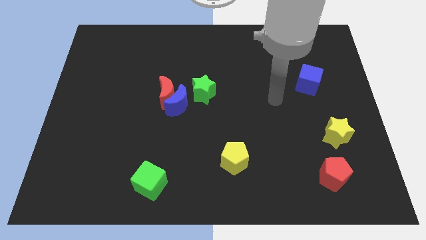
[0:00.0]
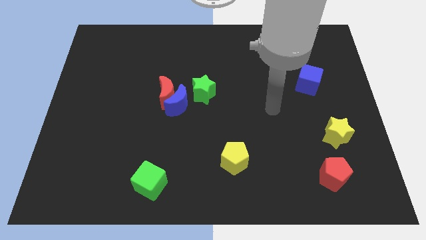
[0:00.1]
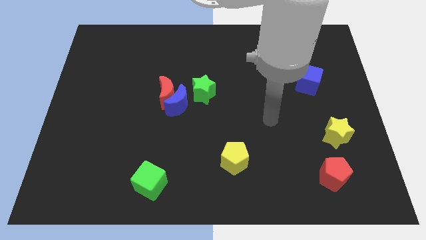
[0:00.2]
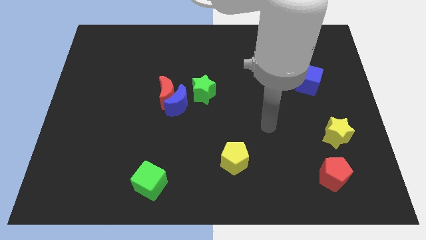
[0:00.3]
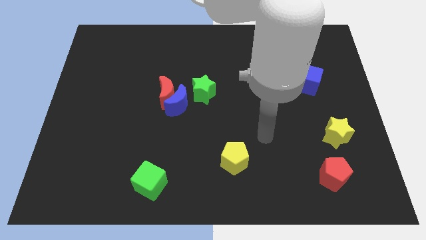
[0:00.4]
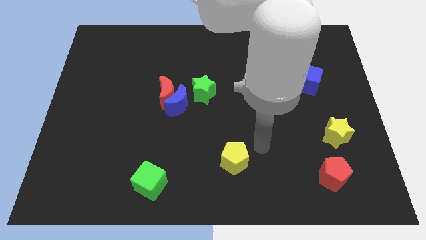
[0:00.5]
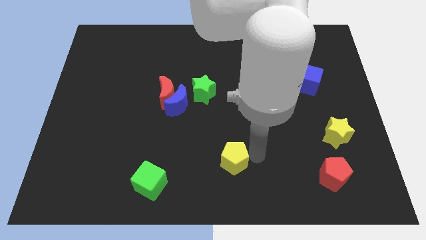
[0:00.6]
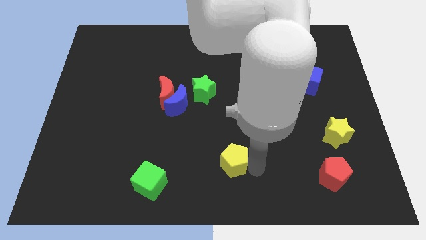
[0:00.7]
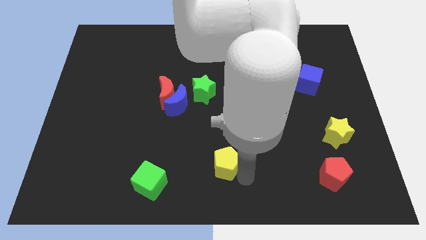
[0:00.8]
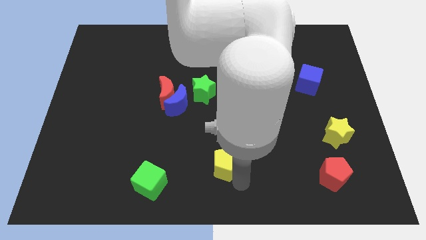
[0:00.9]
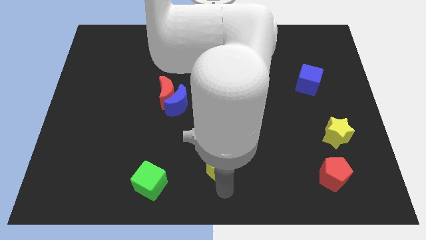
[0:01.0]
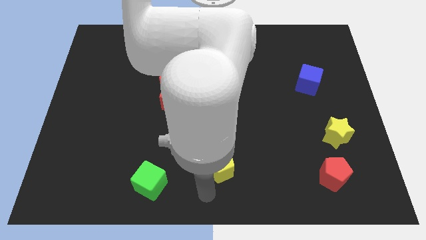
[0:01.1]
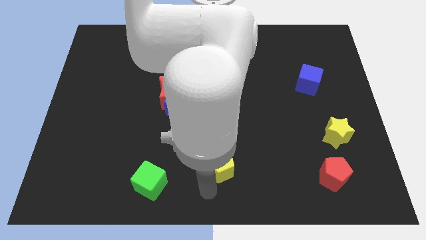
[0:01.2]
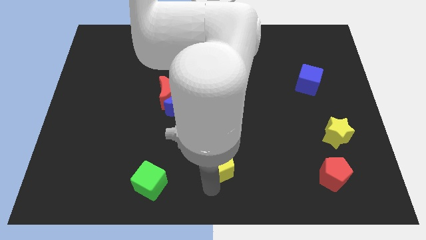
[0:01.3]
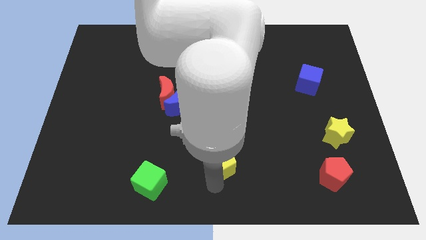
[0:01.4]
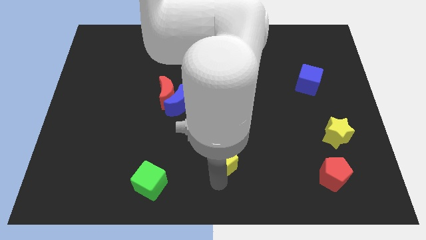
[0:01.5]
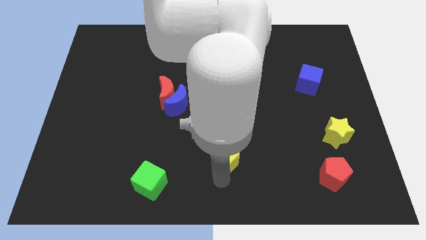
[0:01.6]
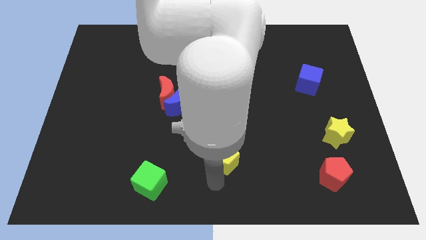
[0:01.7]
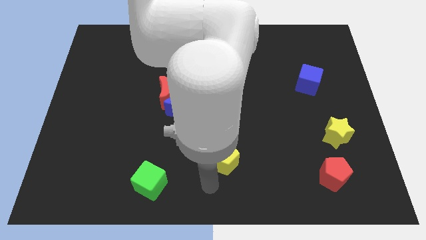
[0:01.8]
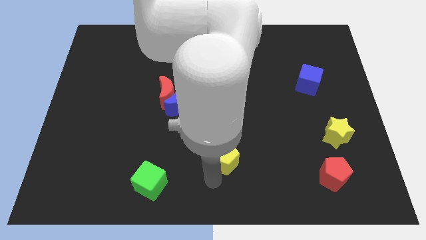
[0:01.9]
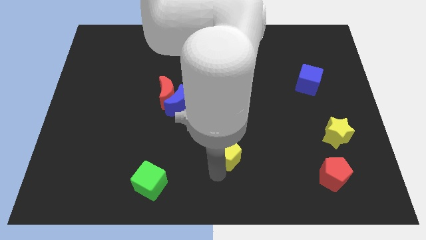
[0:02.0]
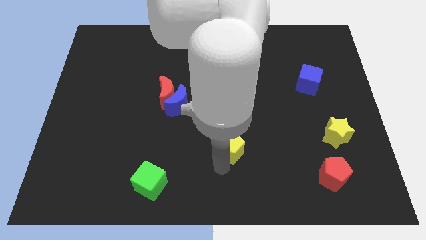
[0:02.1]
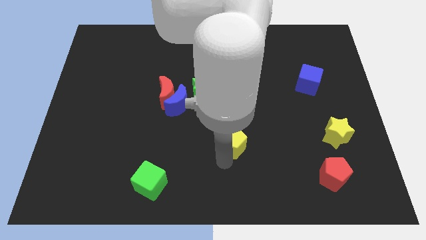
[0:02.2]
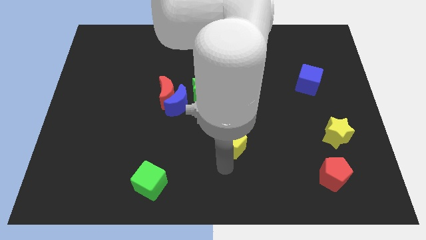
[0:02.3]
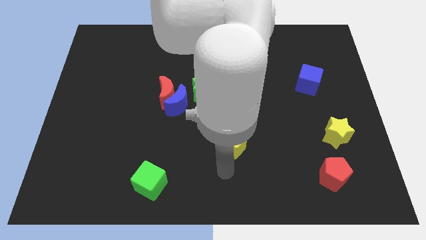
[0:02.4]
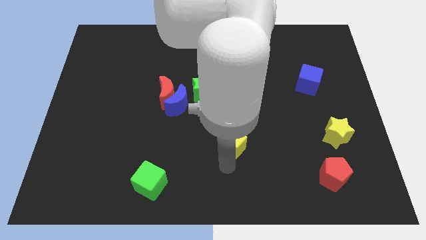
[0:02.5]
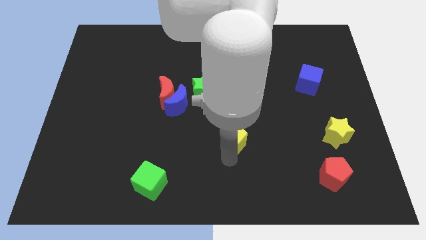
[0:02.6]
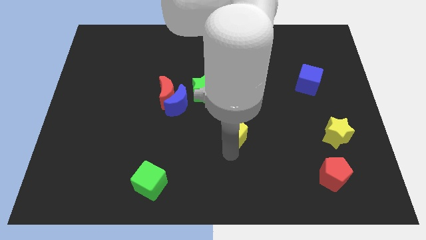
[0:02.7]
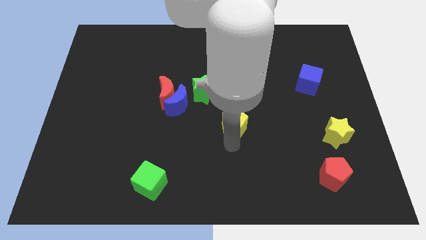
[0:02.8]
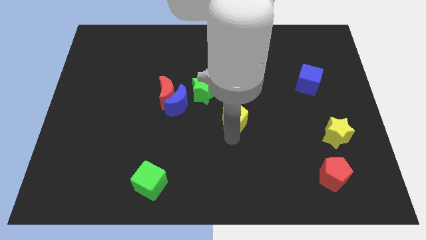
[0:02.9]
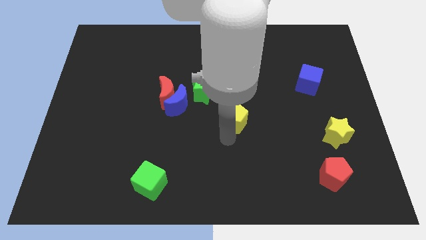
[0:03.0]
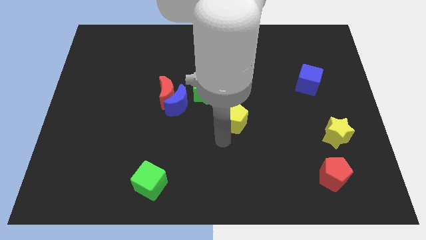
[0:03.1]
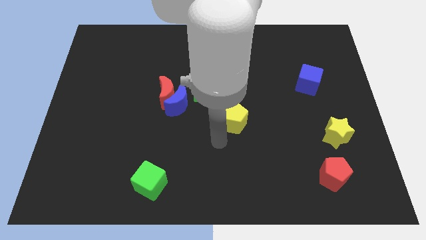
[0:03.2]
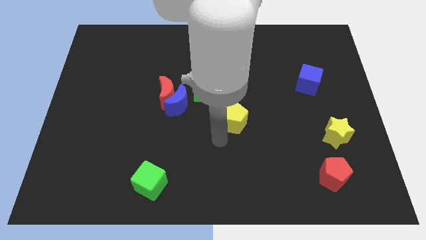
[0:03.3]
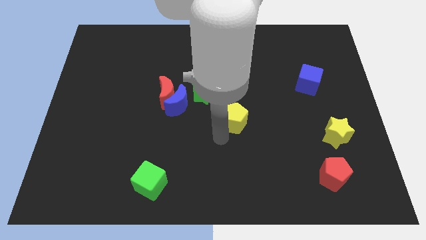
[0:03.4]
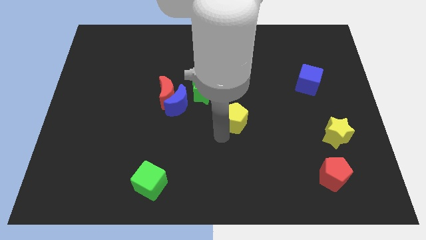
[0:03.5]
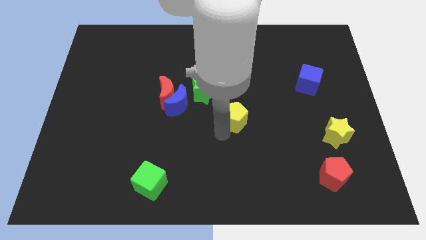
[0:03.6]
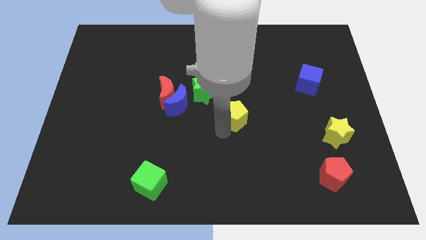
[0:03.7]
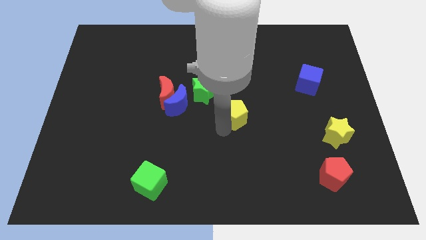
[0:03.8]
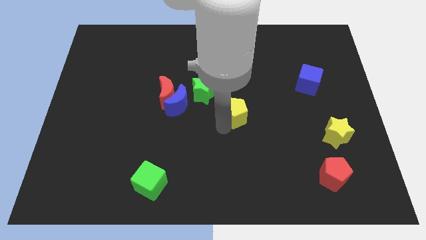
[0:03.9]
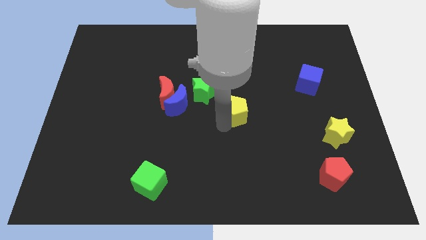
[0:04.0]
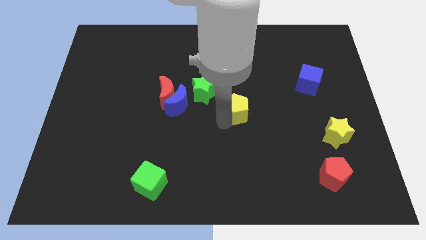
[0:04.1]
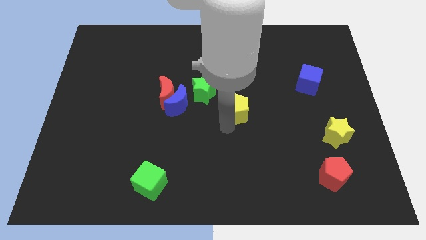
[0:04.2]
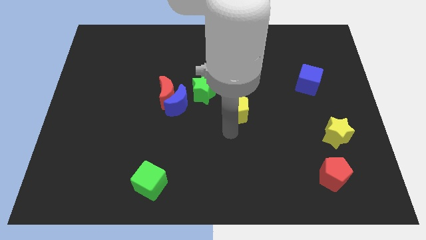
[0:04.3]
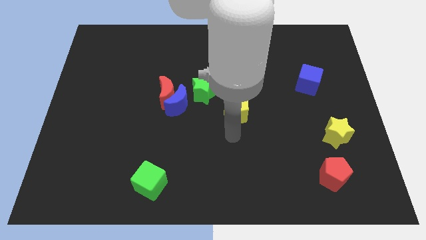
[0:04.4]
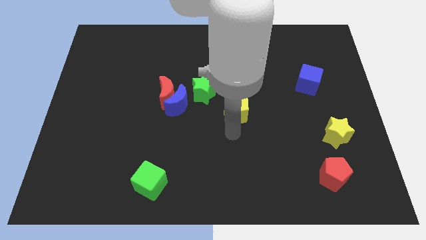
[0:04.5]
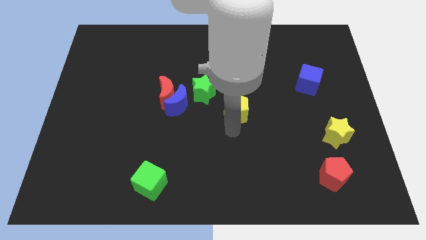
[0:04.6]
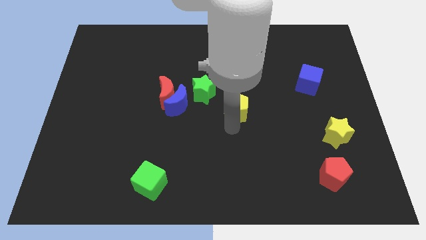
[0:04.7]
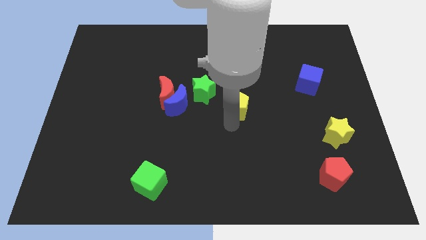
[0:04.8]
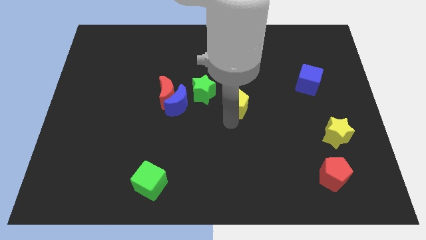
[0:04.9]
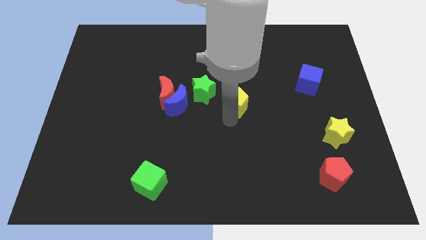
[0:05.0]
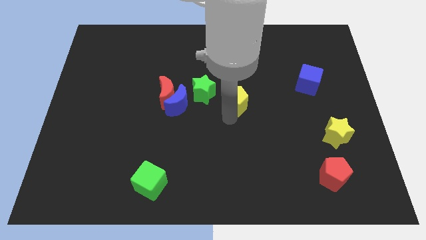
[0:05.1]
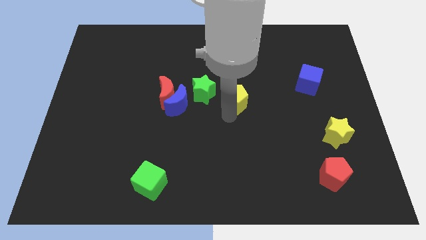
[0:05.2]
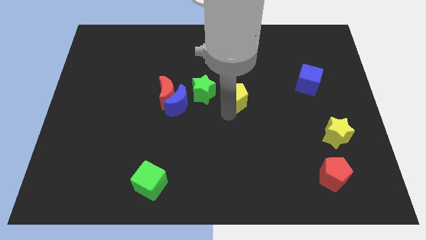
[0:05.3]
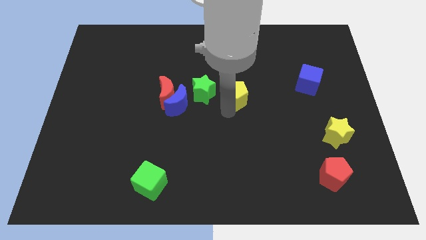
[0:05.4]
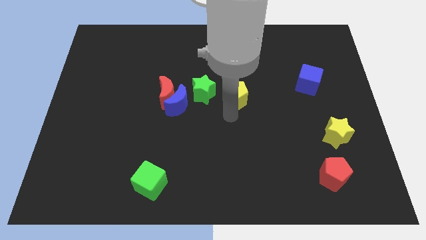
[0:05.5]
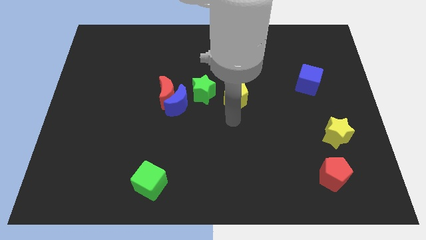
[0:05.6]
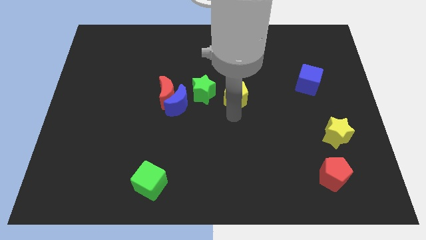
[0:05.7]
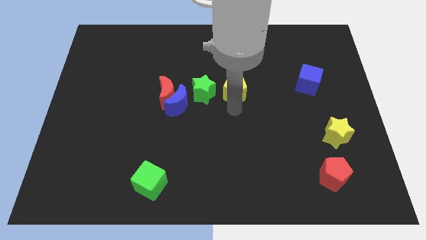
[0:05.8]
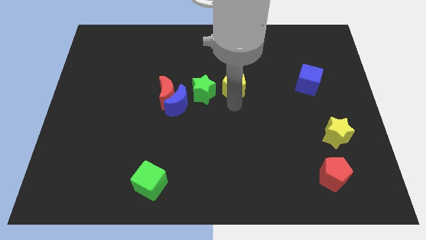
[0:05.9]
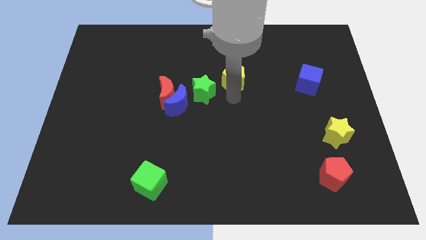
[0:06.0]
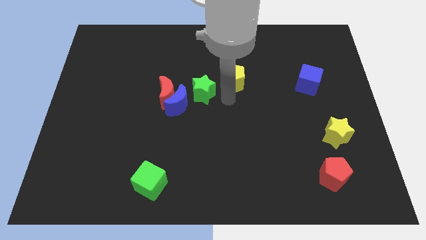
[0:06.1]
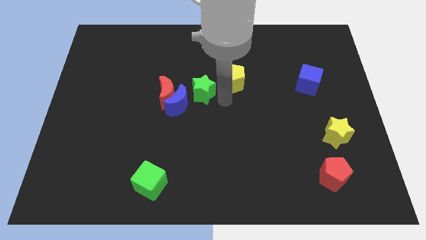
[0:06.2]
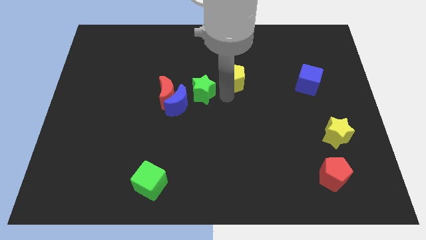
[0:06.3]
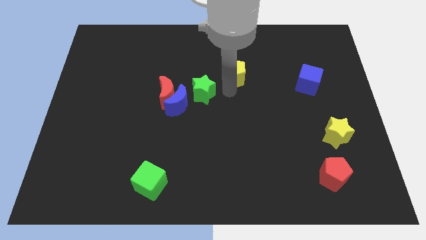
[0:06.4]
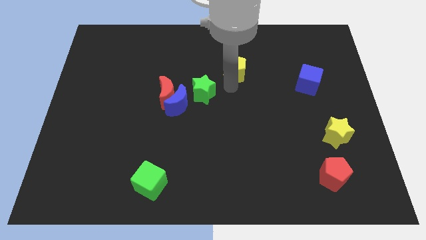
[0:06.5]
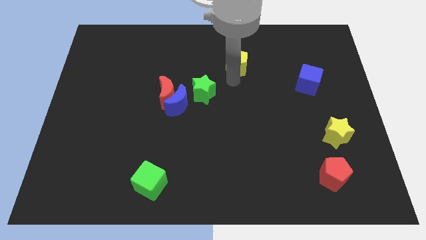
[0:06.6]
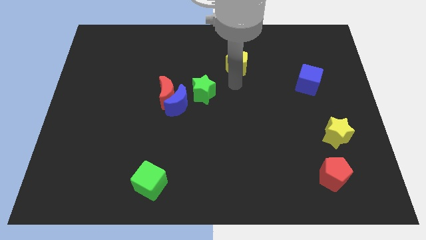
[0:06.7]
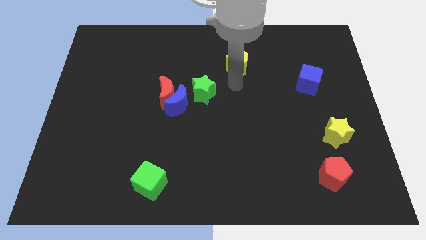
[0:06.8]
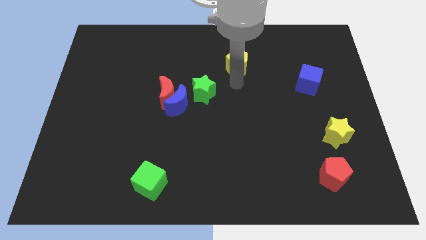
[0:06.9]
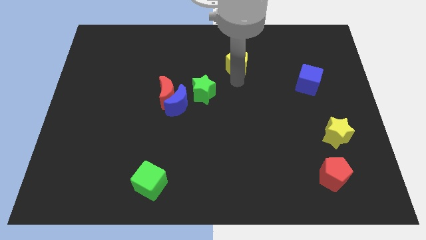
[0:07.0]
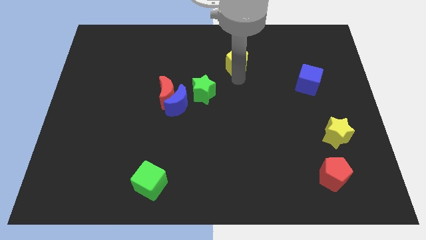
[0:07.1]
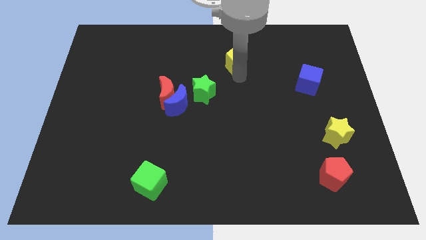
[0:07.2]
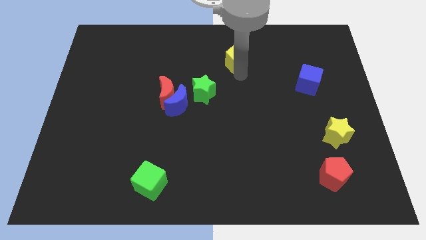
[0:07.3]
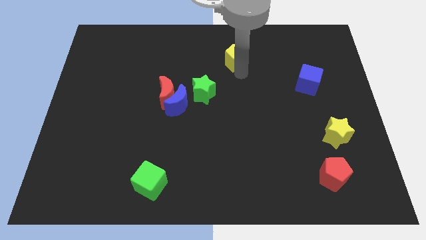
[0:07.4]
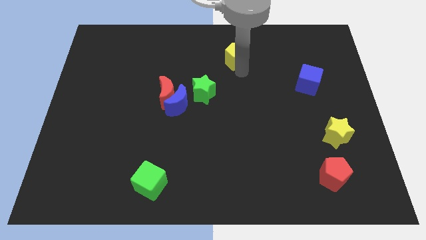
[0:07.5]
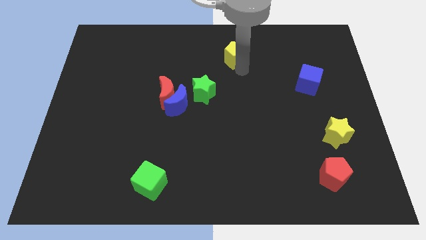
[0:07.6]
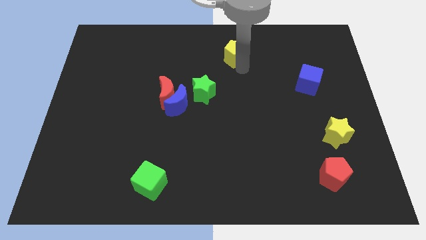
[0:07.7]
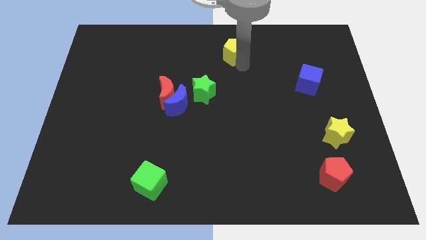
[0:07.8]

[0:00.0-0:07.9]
slide the yellow pentagon to the top

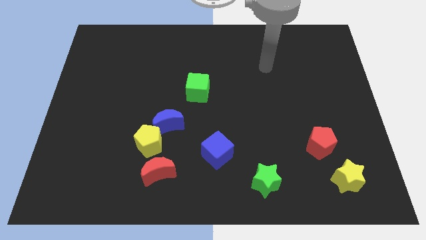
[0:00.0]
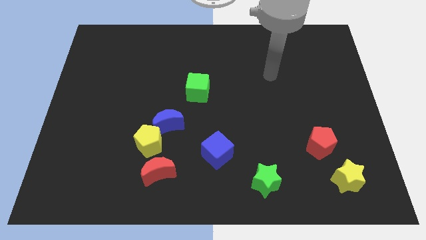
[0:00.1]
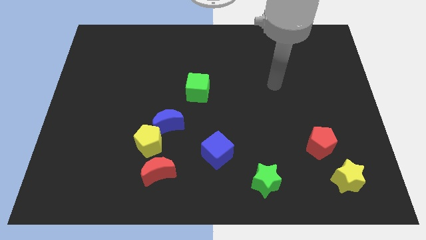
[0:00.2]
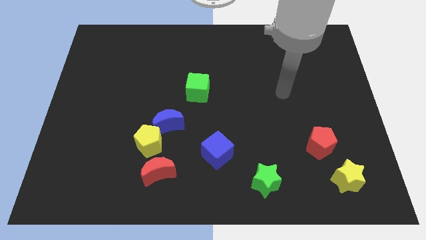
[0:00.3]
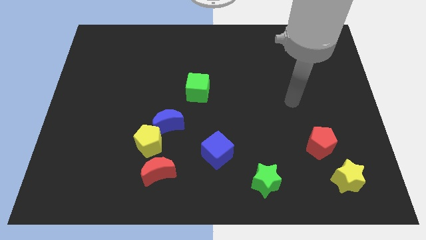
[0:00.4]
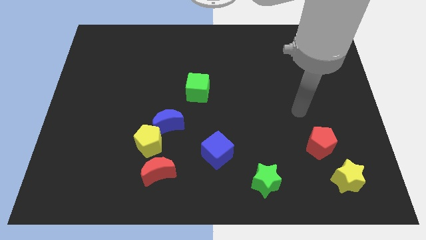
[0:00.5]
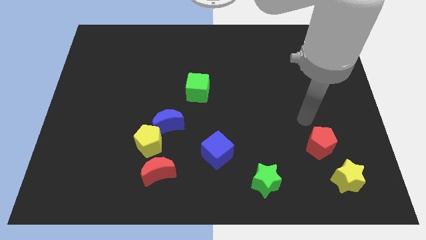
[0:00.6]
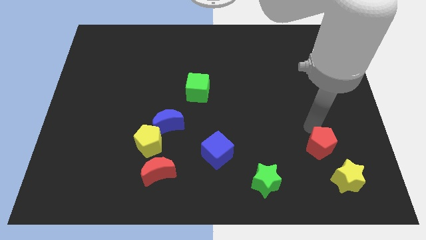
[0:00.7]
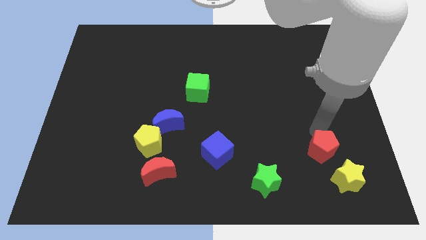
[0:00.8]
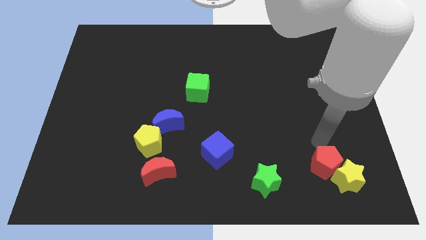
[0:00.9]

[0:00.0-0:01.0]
move the yellow star to the lower right corner
